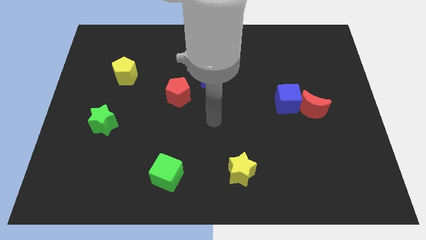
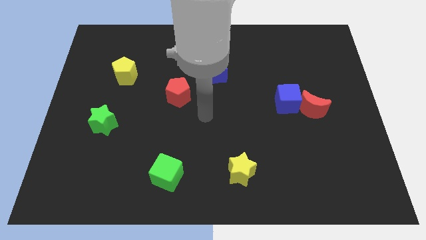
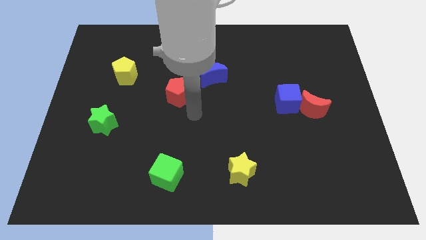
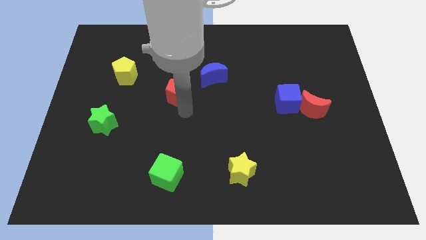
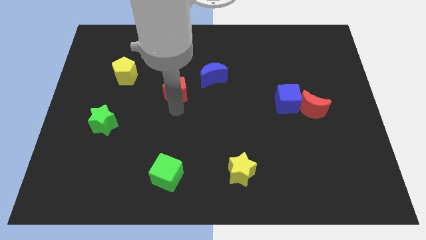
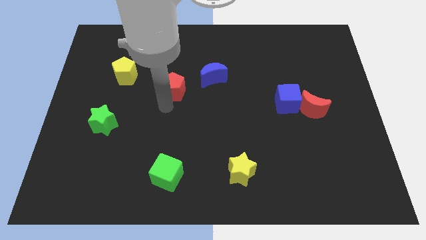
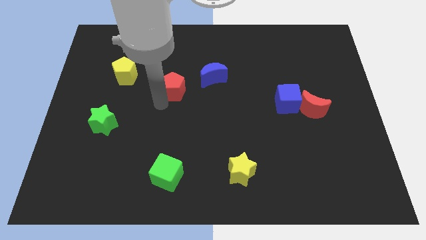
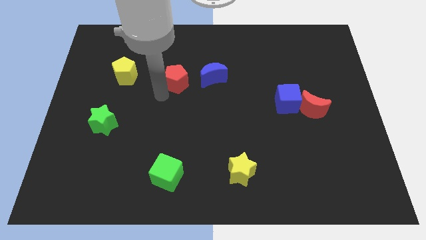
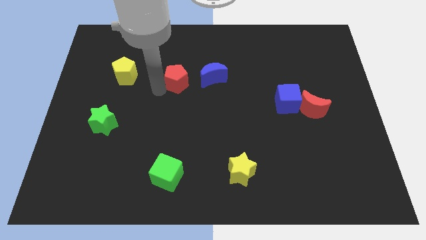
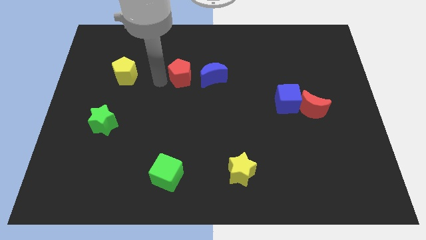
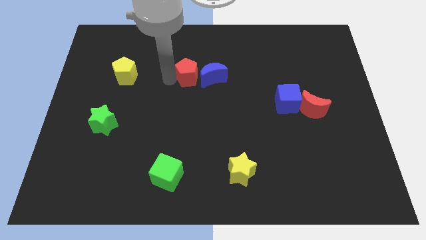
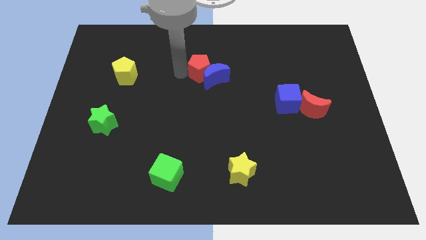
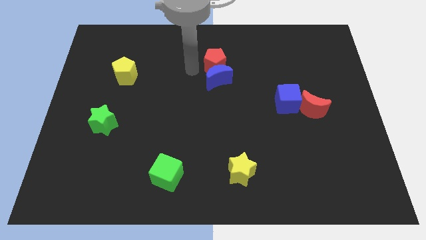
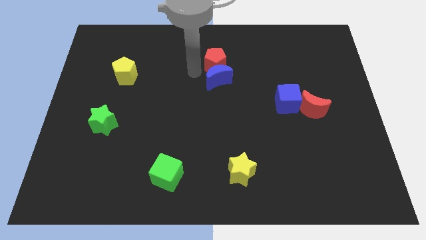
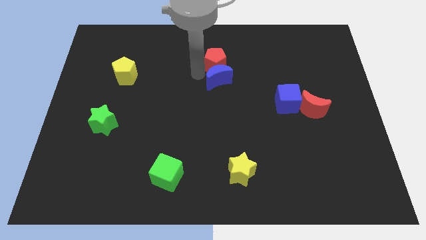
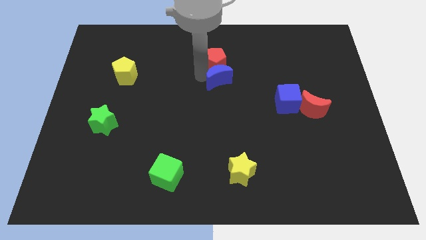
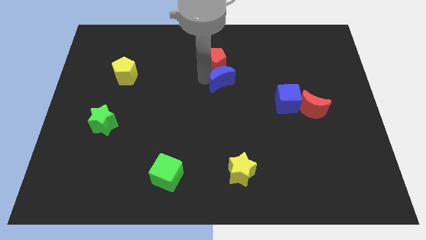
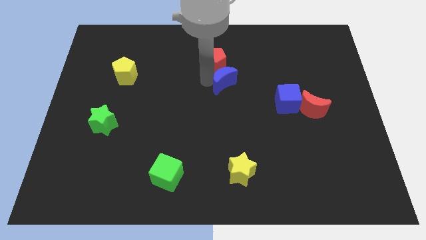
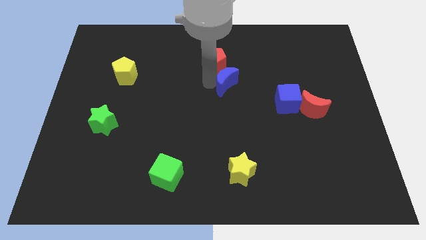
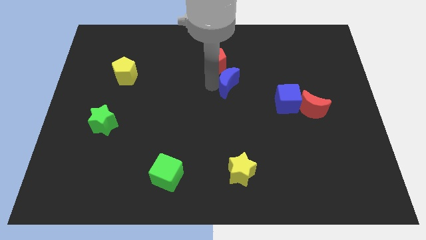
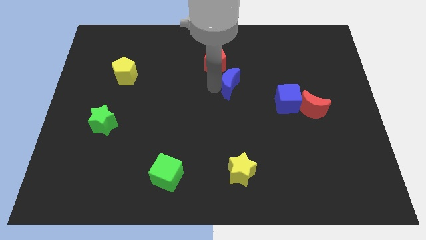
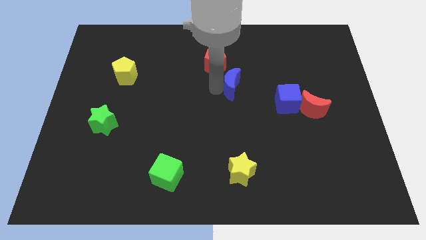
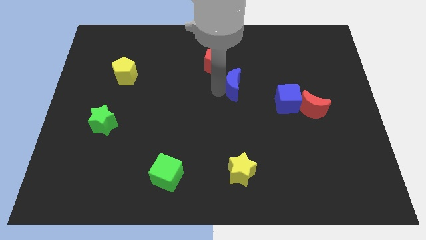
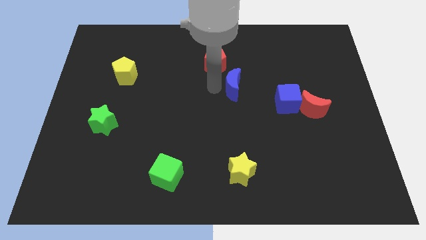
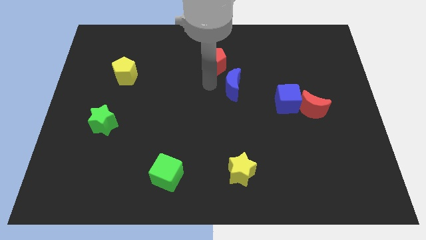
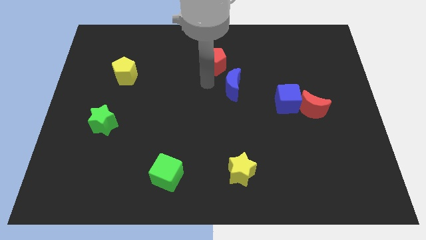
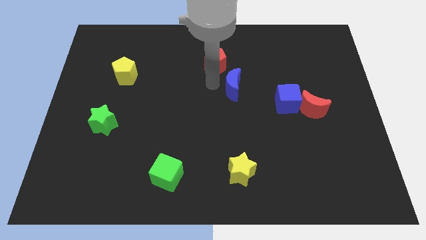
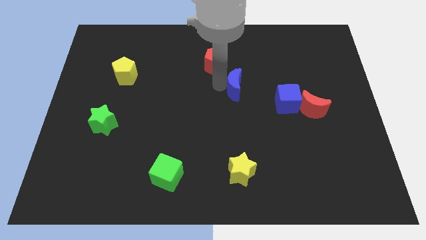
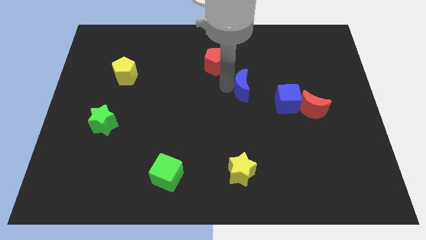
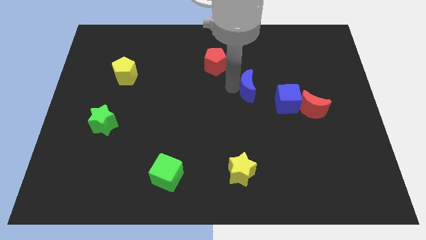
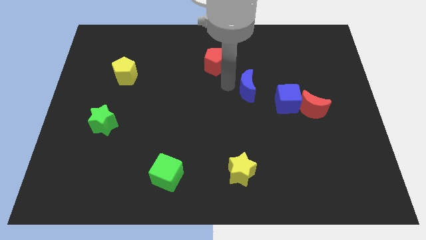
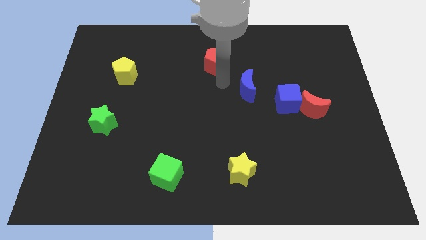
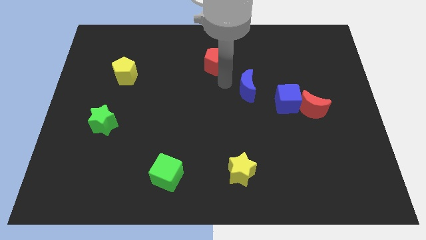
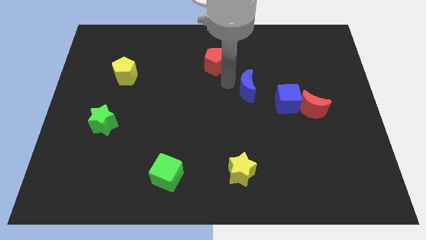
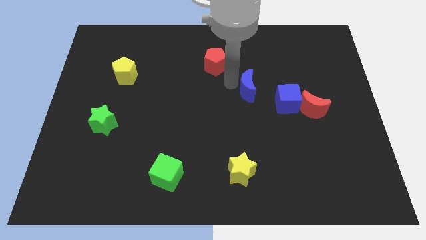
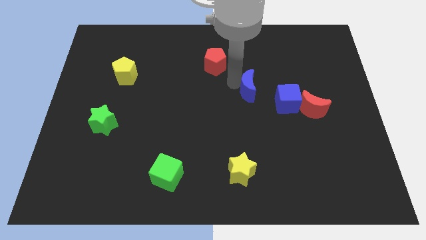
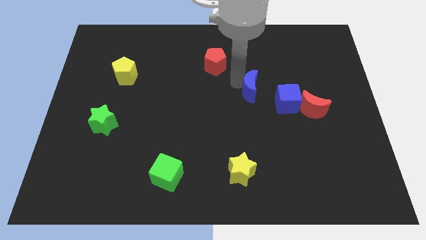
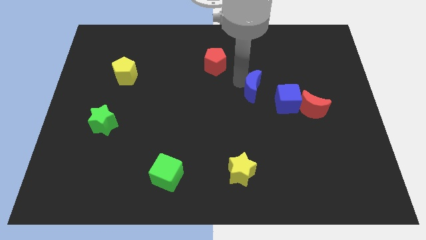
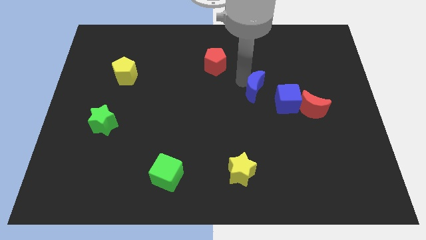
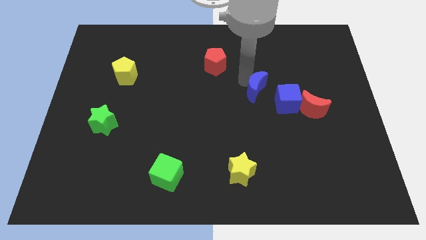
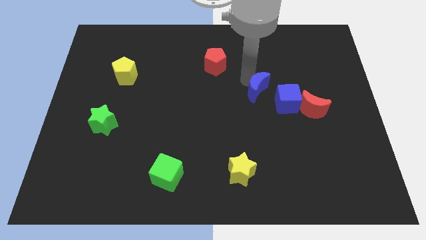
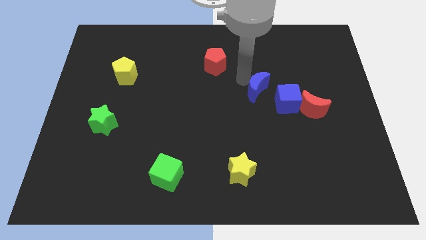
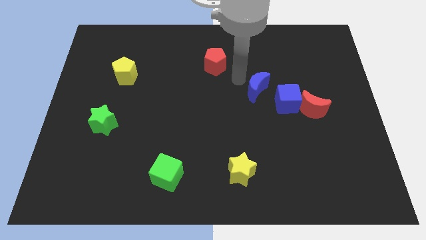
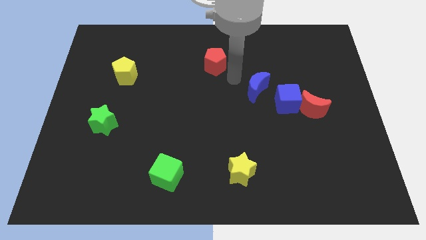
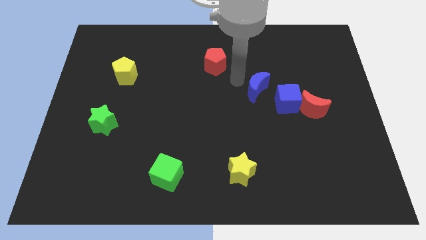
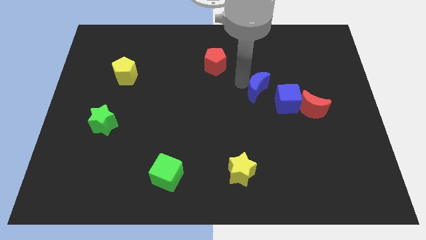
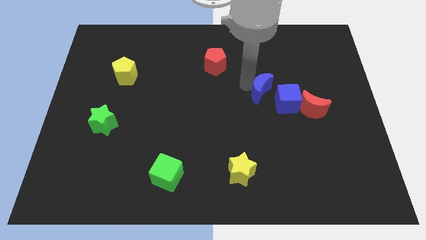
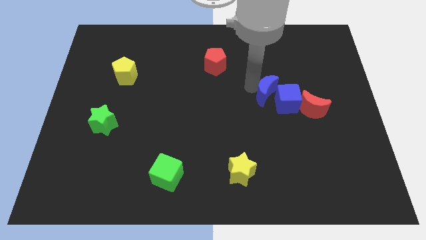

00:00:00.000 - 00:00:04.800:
slide the blue moon next to the blue cube

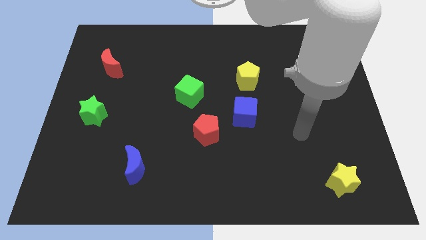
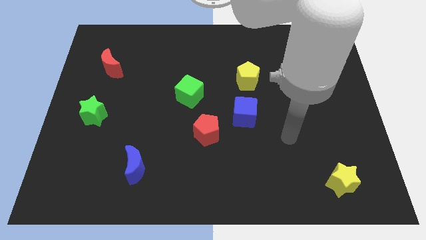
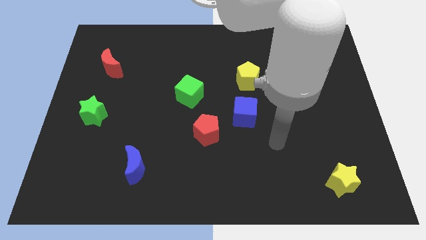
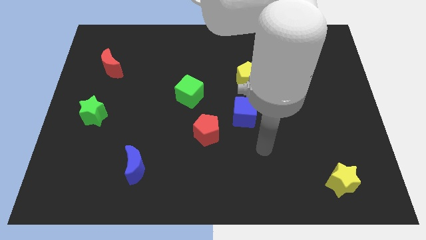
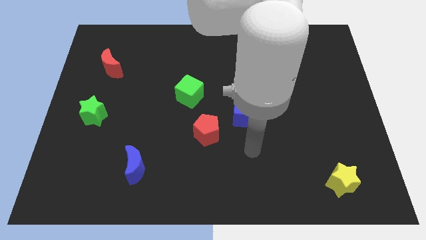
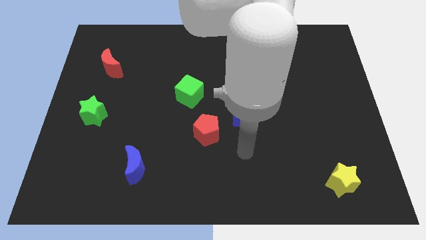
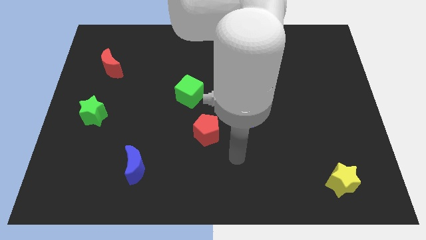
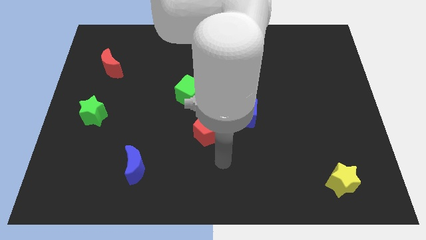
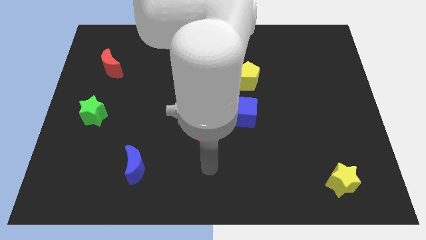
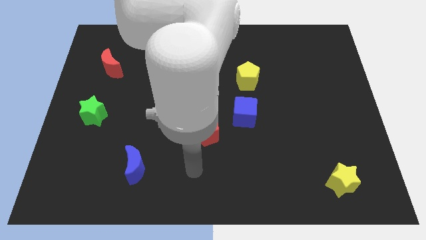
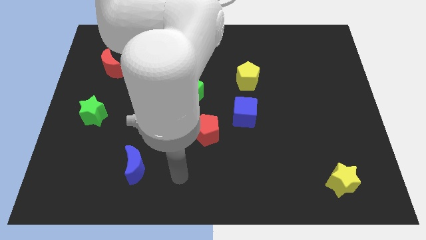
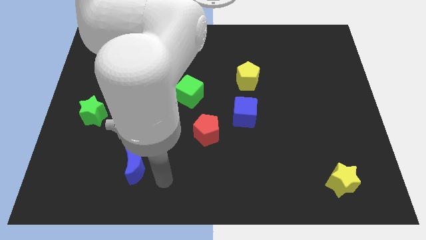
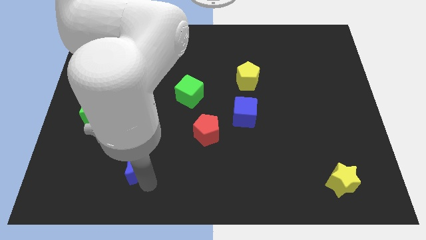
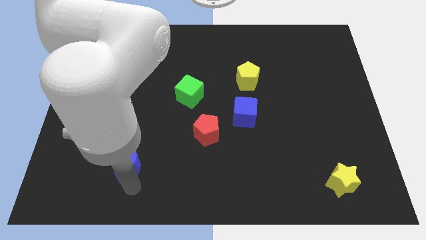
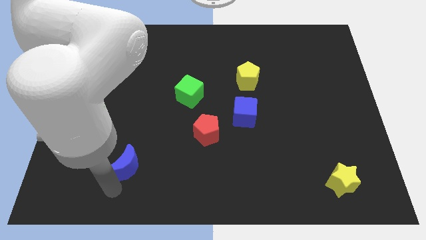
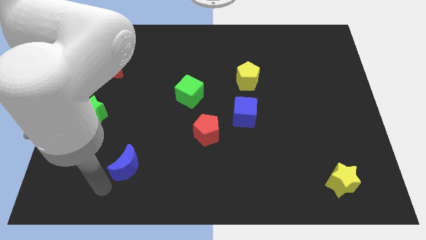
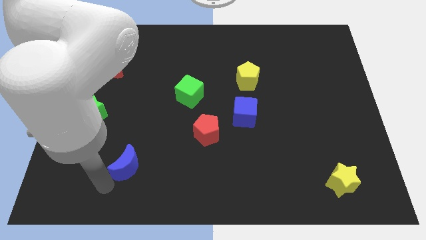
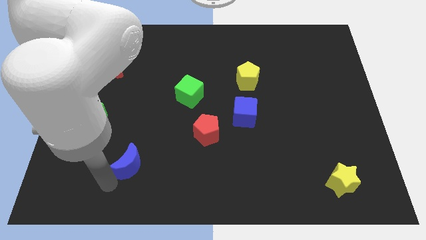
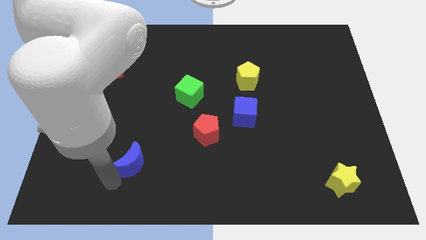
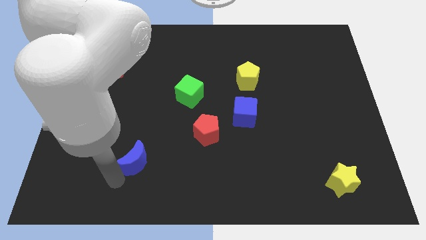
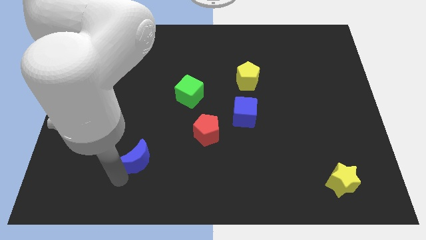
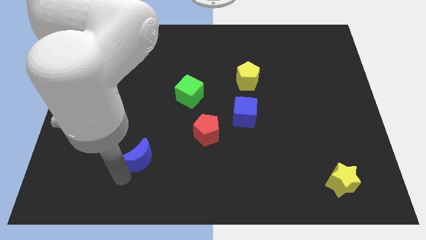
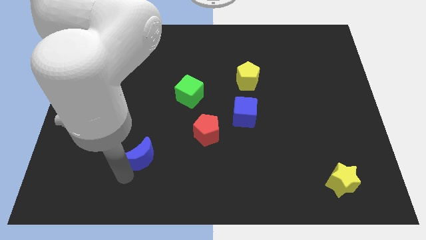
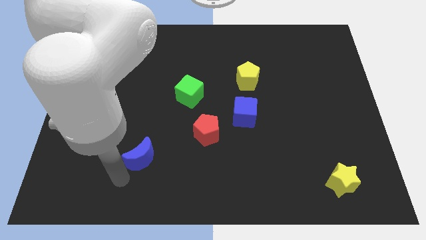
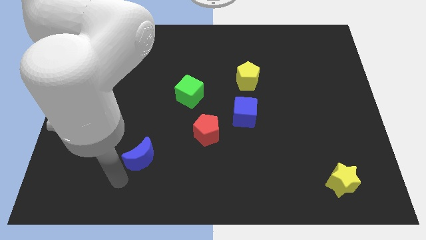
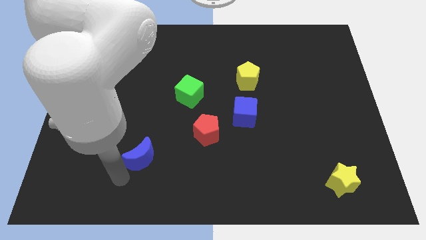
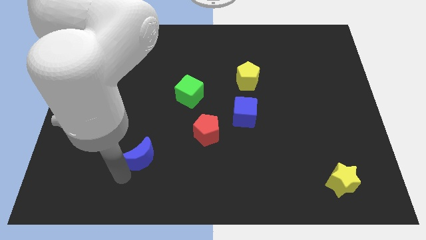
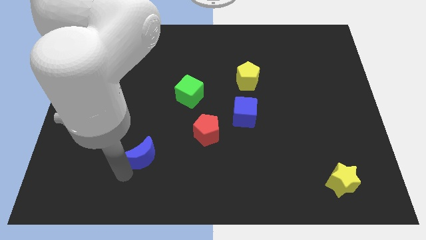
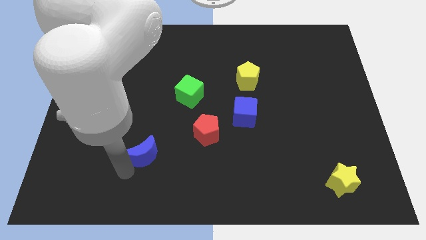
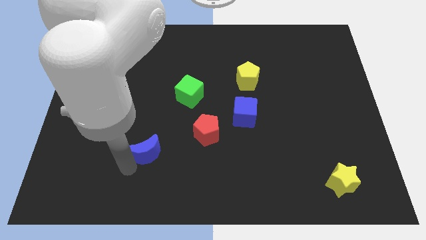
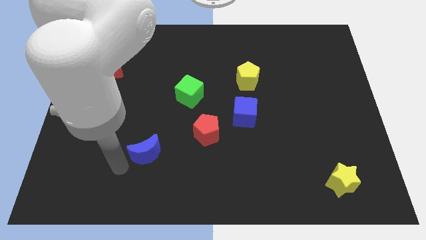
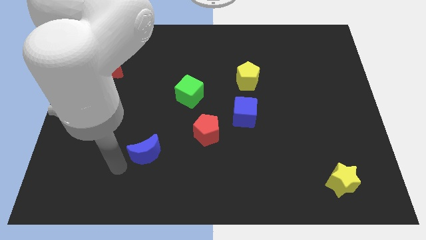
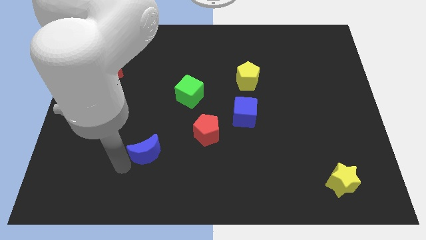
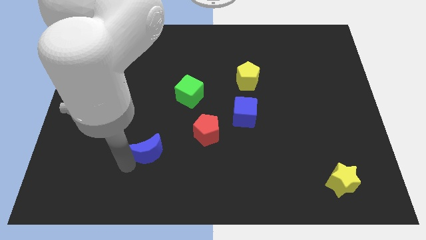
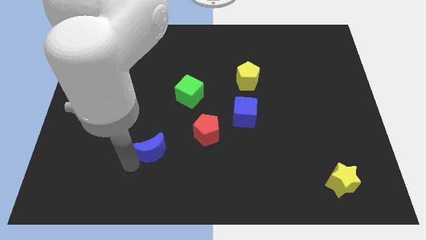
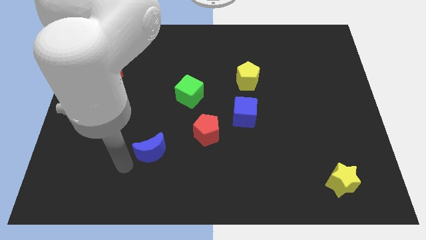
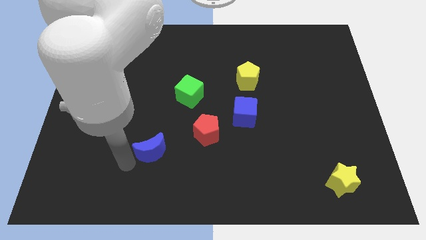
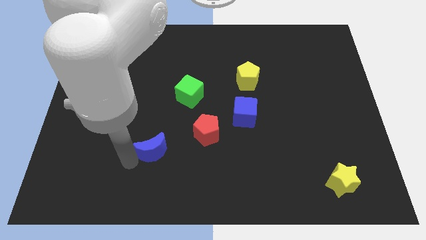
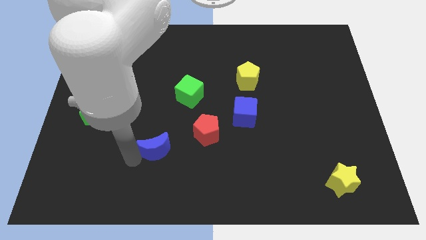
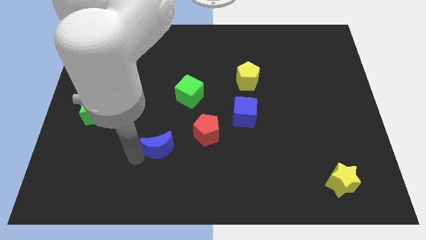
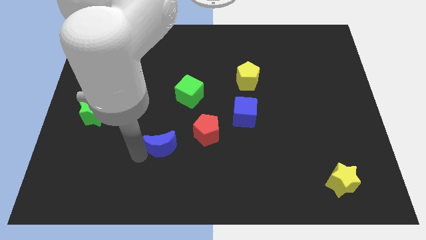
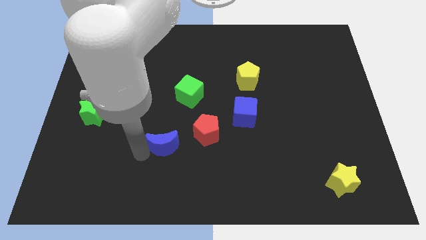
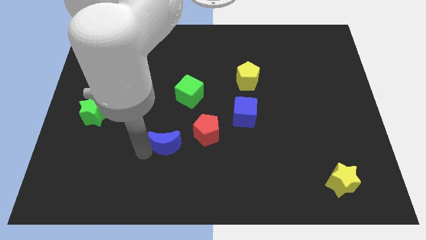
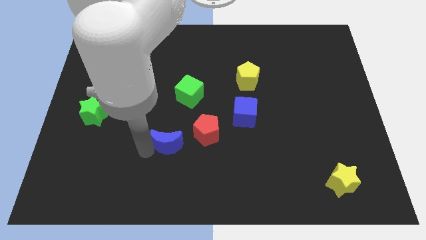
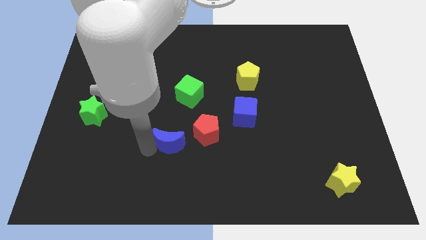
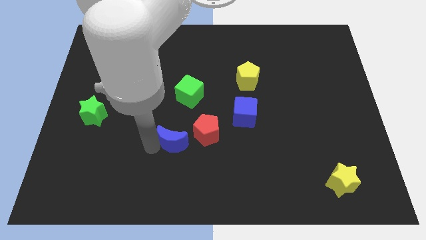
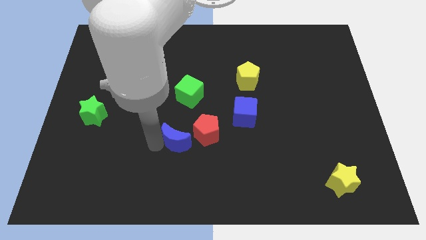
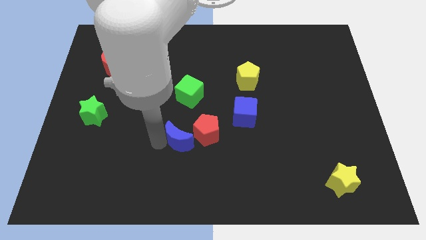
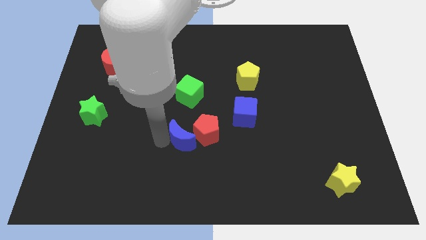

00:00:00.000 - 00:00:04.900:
slide the blue moon next to the red pentagon
